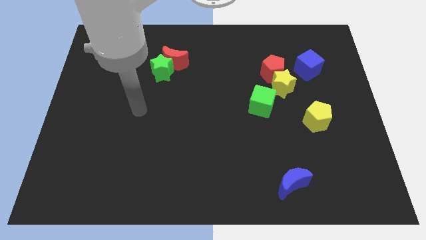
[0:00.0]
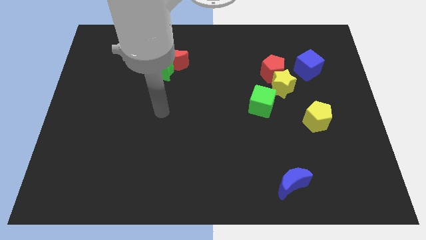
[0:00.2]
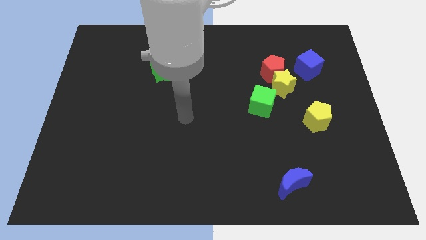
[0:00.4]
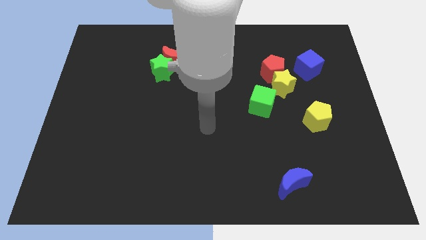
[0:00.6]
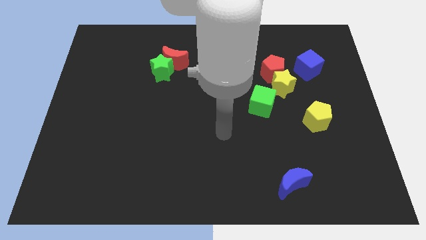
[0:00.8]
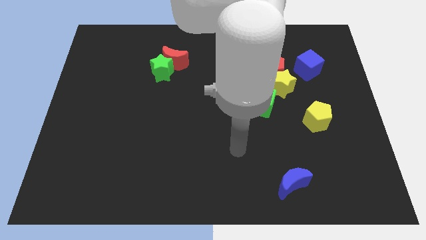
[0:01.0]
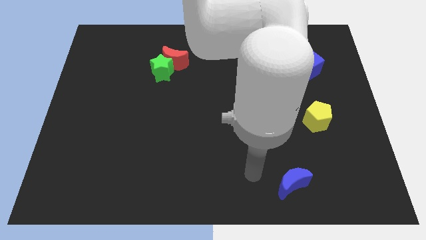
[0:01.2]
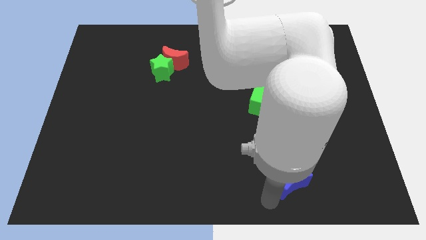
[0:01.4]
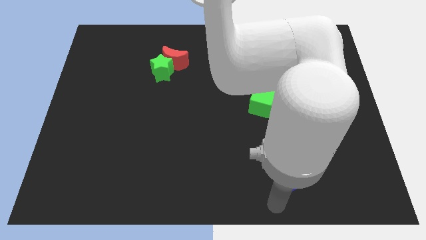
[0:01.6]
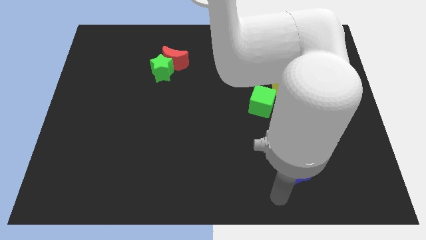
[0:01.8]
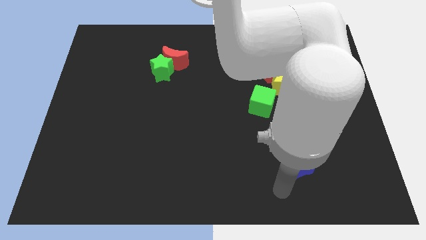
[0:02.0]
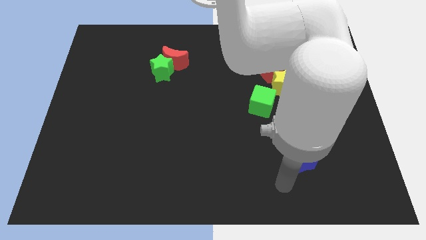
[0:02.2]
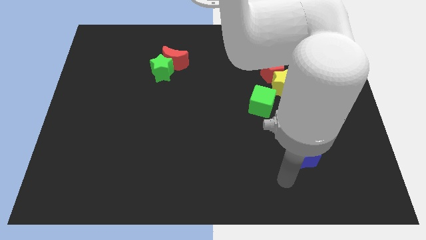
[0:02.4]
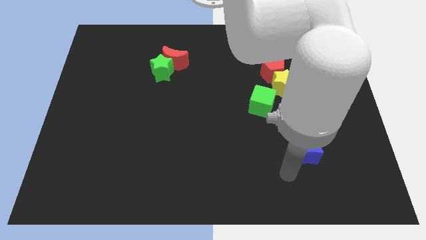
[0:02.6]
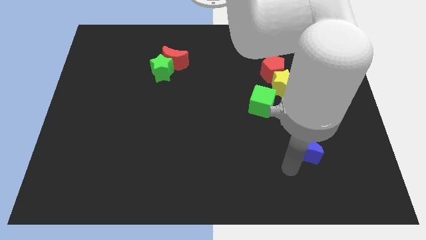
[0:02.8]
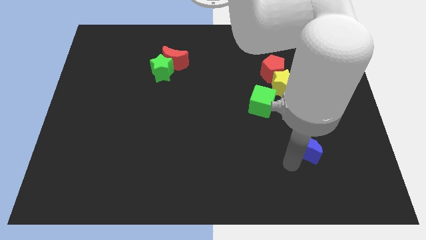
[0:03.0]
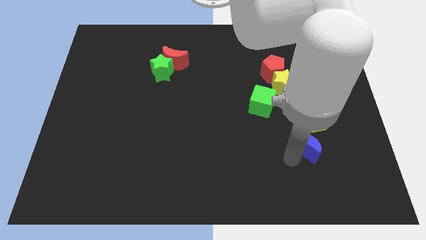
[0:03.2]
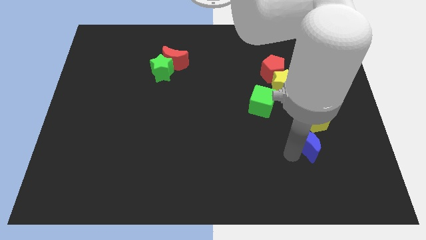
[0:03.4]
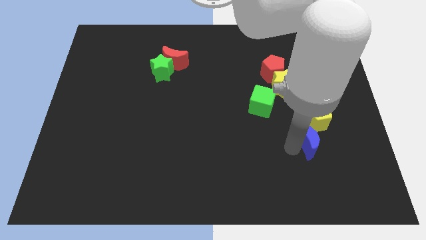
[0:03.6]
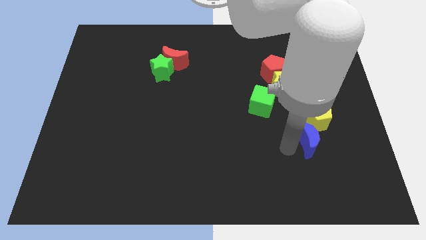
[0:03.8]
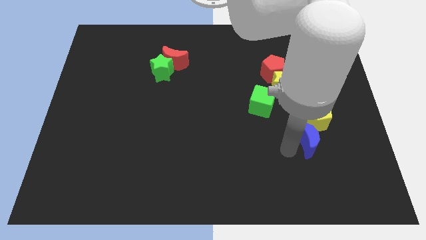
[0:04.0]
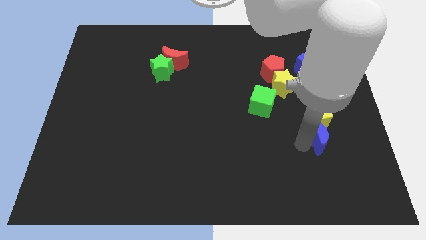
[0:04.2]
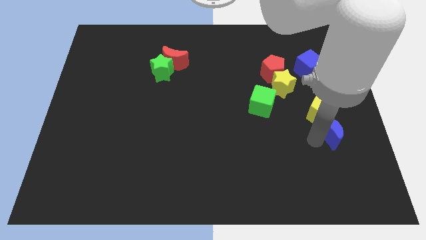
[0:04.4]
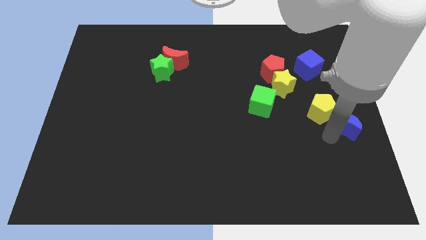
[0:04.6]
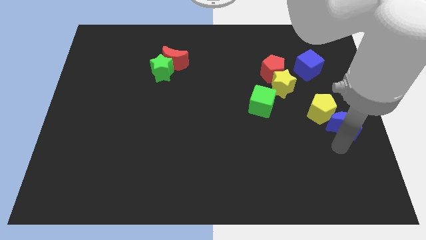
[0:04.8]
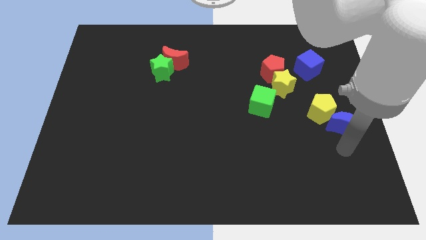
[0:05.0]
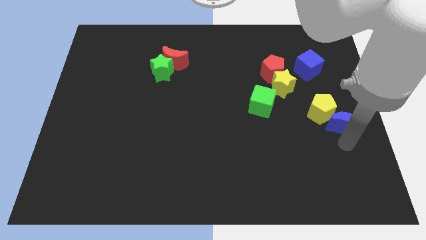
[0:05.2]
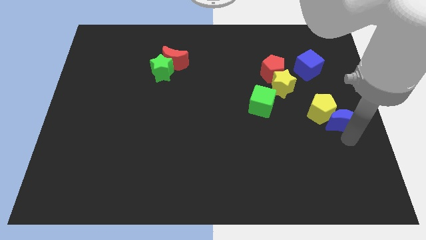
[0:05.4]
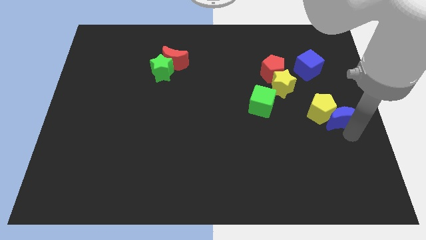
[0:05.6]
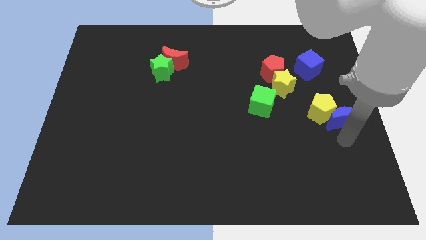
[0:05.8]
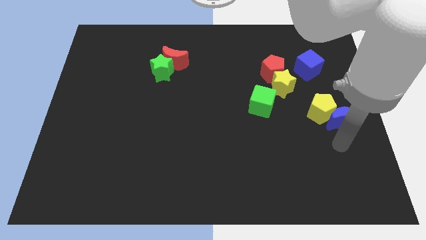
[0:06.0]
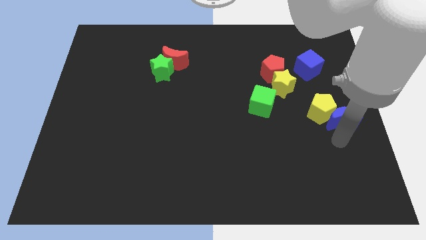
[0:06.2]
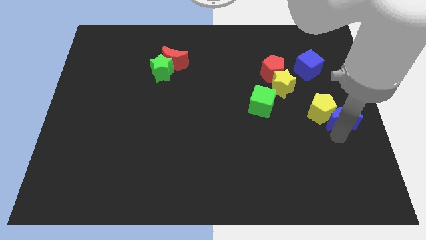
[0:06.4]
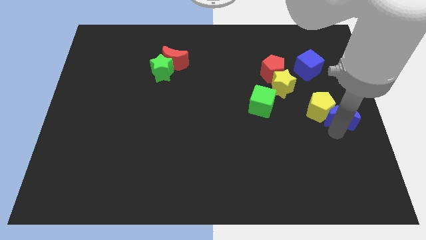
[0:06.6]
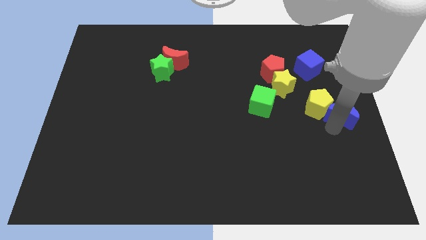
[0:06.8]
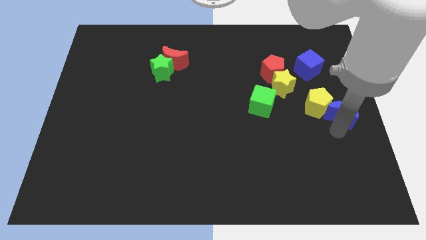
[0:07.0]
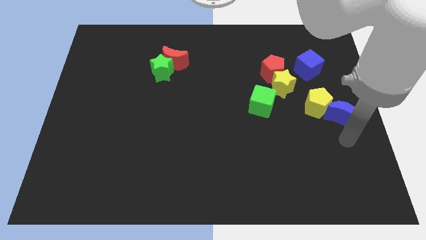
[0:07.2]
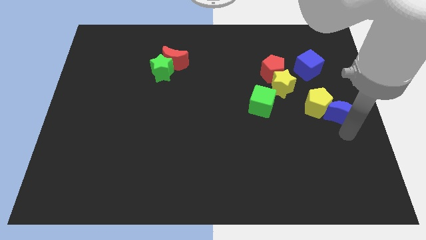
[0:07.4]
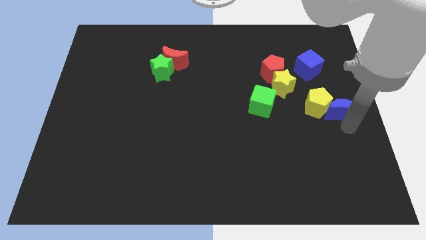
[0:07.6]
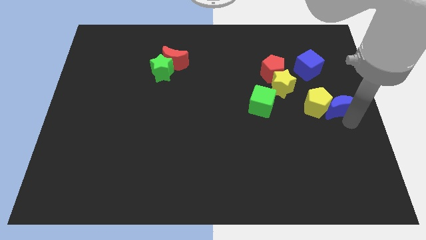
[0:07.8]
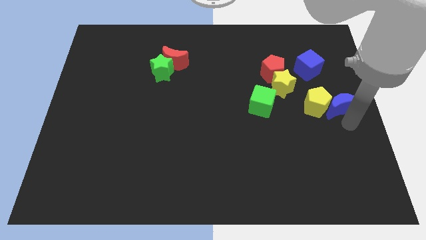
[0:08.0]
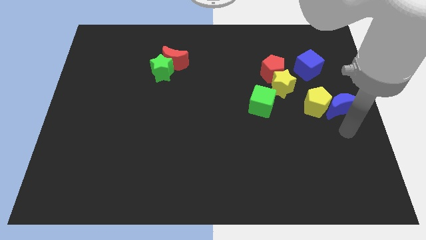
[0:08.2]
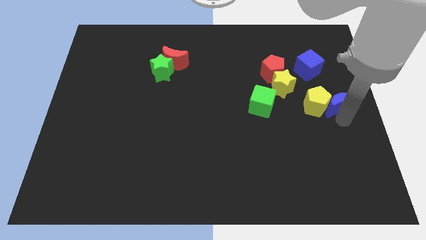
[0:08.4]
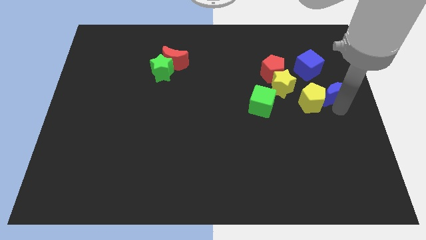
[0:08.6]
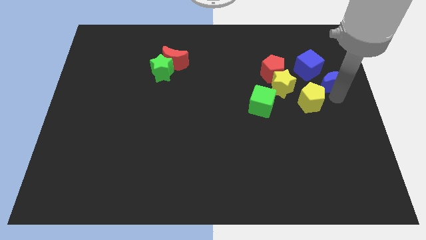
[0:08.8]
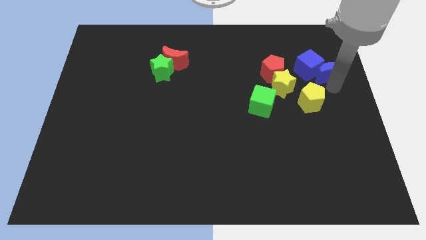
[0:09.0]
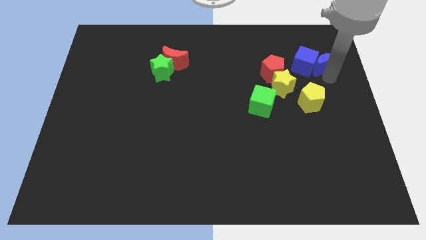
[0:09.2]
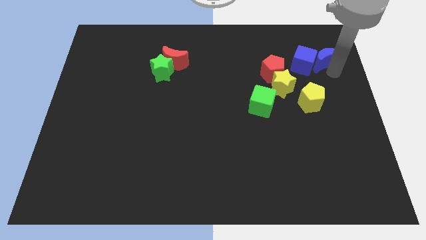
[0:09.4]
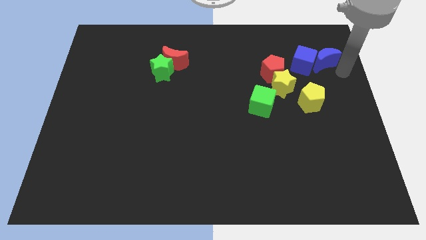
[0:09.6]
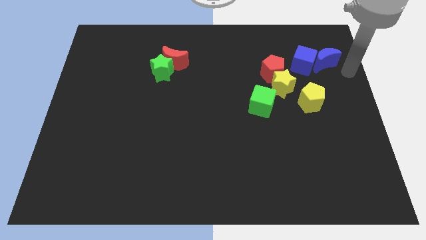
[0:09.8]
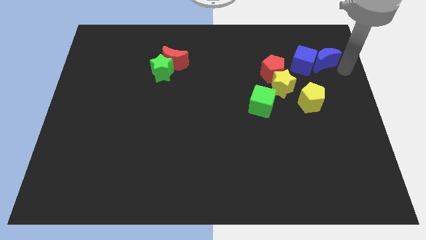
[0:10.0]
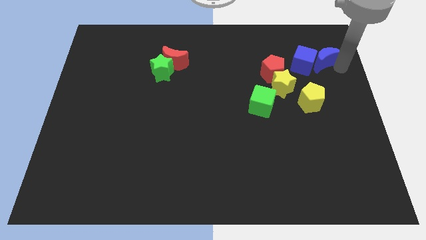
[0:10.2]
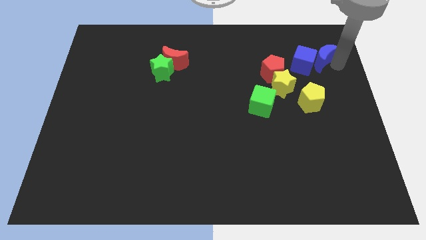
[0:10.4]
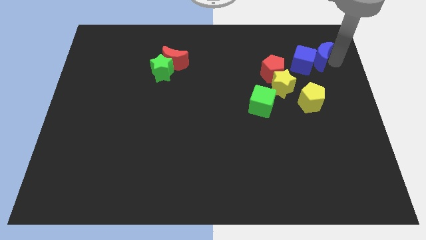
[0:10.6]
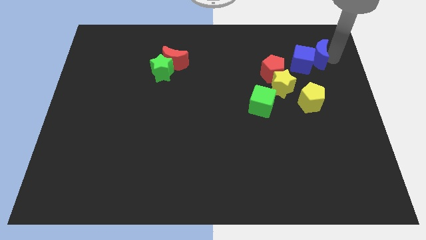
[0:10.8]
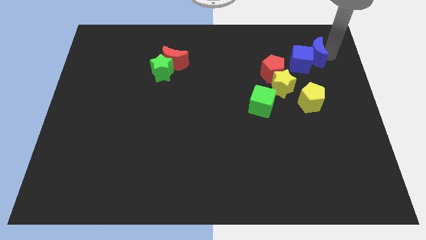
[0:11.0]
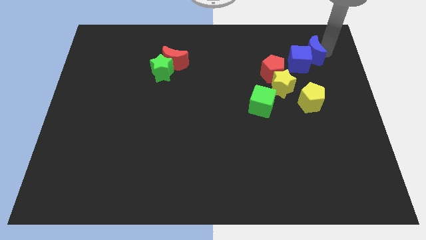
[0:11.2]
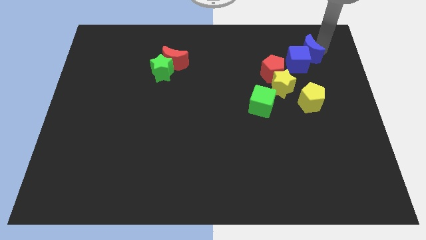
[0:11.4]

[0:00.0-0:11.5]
push the blue moon to the top right of the red pentagon

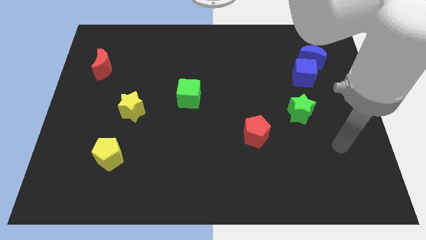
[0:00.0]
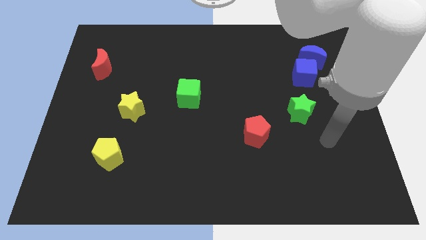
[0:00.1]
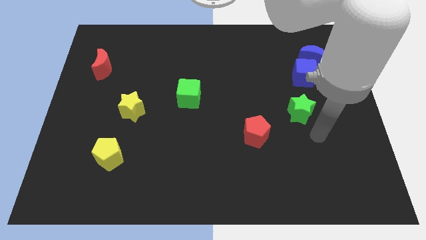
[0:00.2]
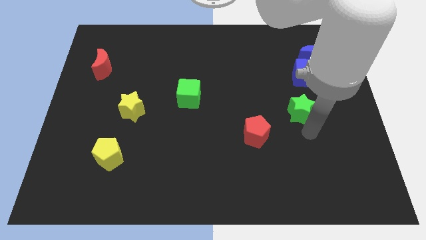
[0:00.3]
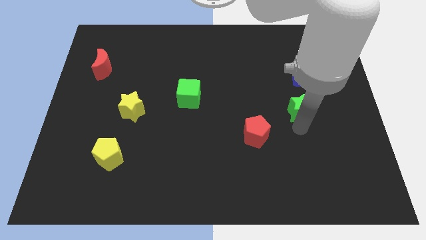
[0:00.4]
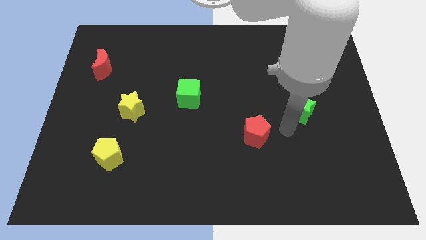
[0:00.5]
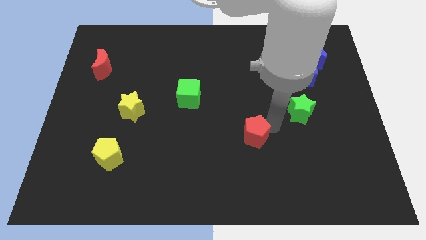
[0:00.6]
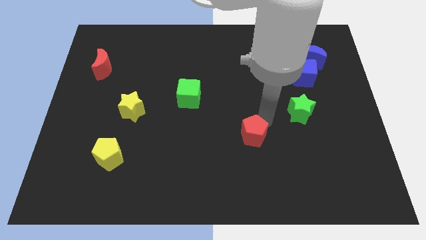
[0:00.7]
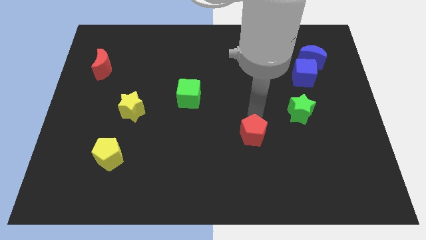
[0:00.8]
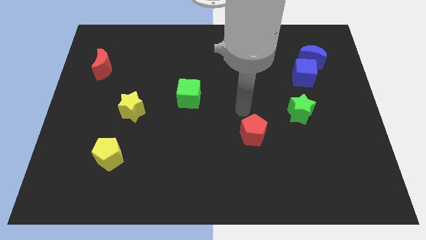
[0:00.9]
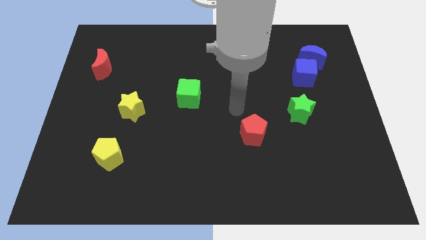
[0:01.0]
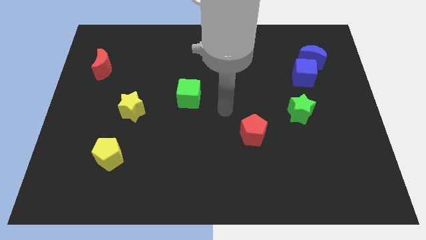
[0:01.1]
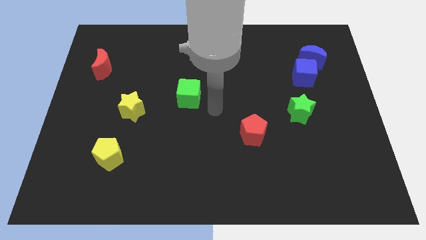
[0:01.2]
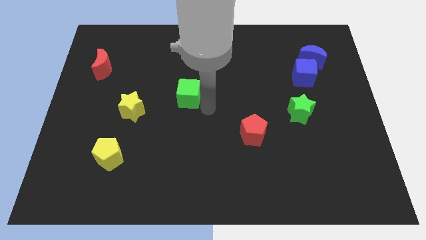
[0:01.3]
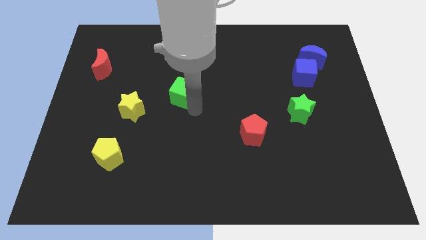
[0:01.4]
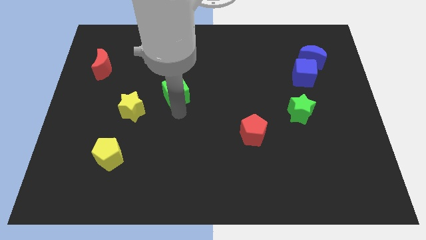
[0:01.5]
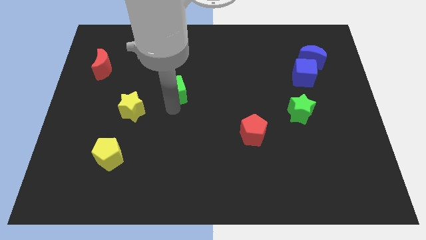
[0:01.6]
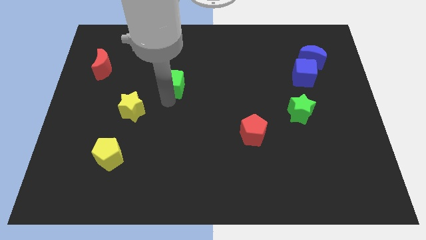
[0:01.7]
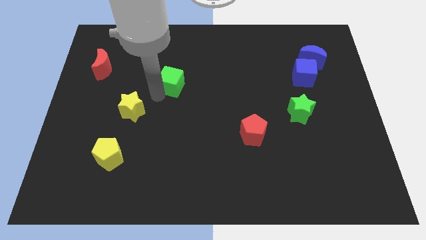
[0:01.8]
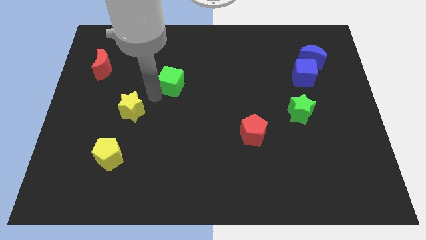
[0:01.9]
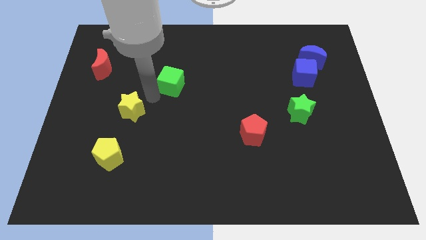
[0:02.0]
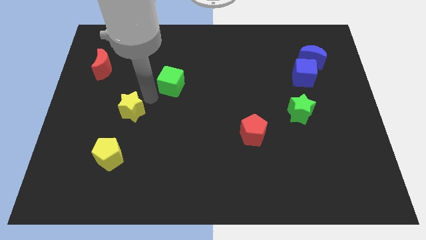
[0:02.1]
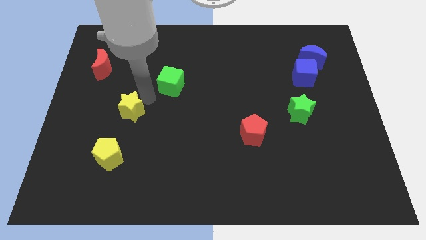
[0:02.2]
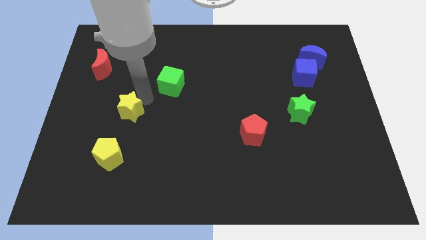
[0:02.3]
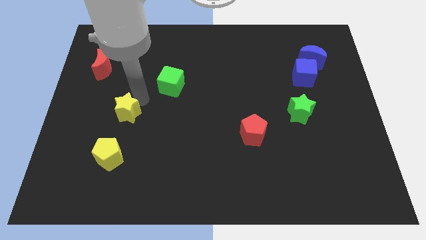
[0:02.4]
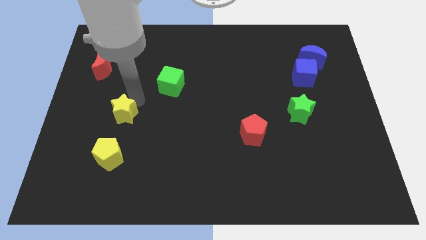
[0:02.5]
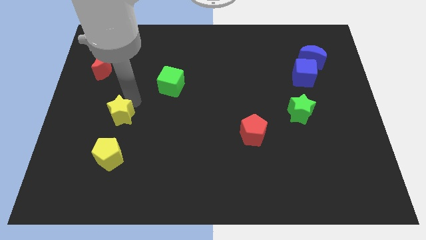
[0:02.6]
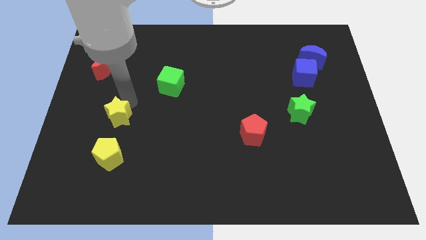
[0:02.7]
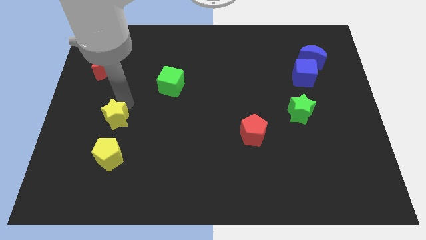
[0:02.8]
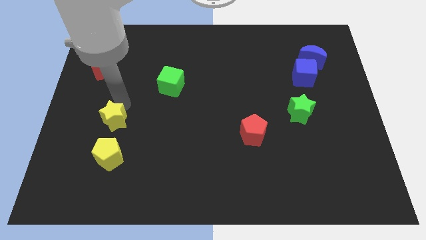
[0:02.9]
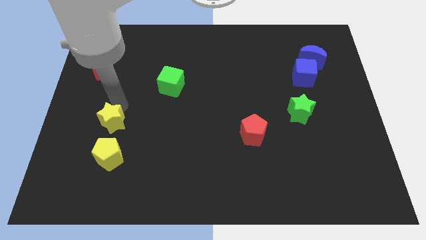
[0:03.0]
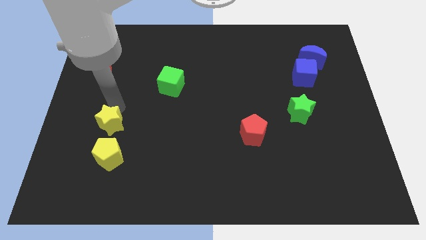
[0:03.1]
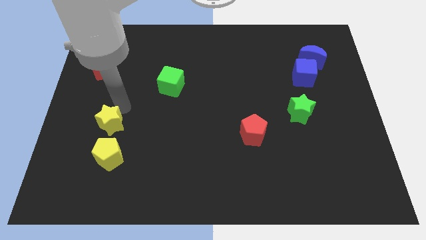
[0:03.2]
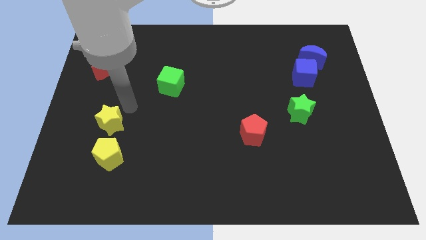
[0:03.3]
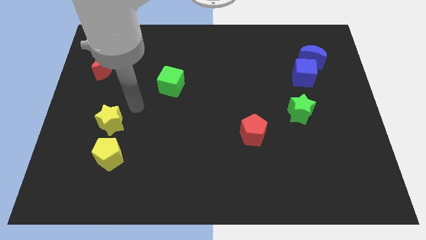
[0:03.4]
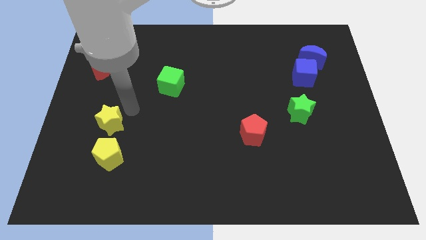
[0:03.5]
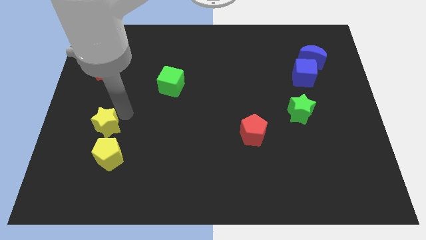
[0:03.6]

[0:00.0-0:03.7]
move the yellow star diagonally up and to the left of the yellow pentagon
